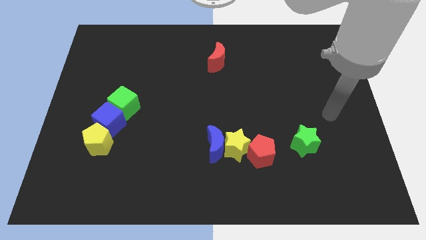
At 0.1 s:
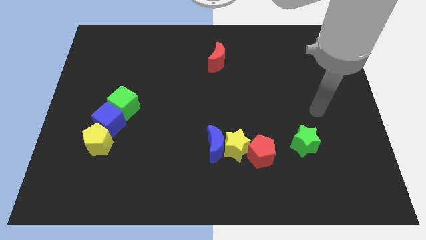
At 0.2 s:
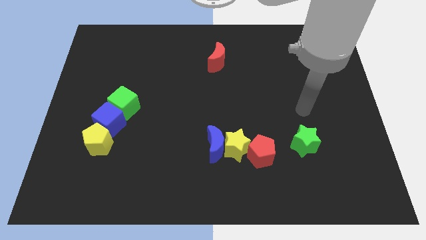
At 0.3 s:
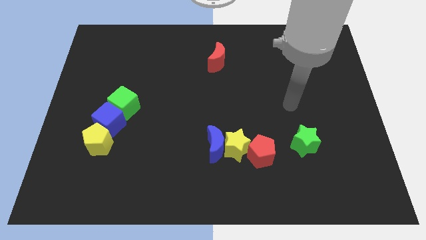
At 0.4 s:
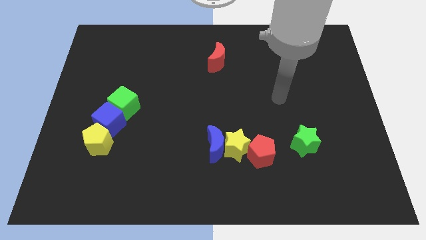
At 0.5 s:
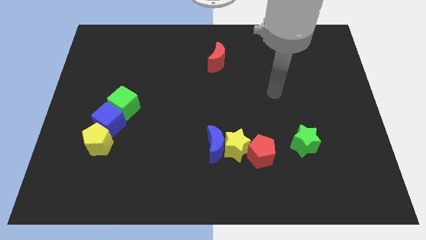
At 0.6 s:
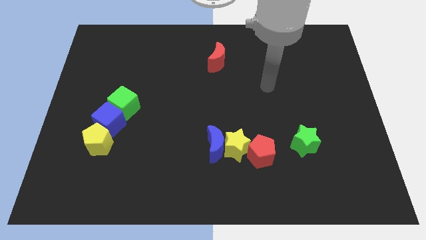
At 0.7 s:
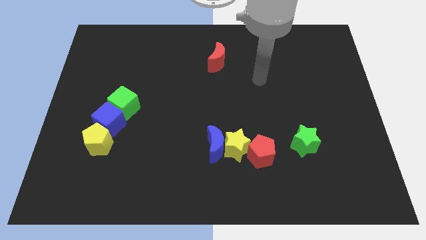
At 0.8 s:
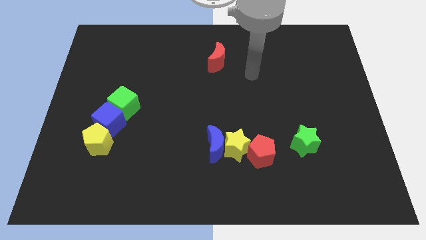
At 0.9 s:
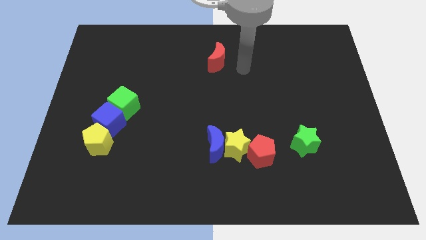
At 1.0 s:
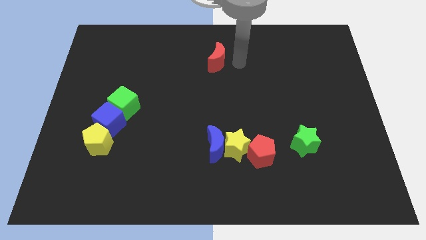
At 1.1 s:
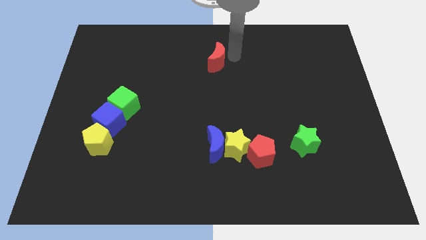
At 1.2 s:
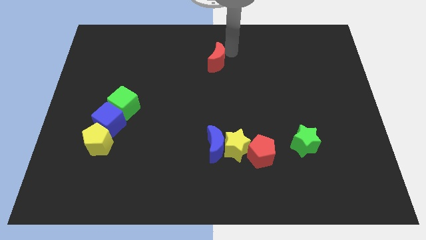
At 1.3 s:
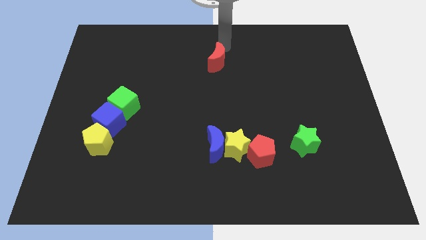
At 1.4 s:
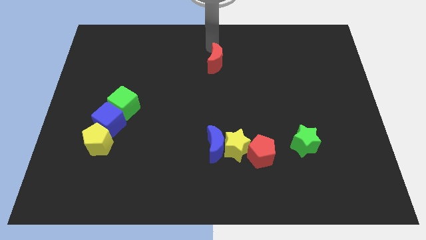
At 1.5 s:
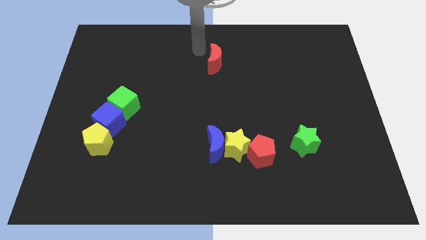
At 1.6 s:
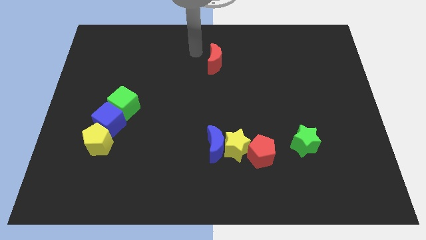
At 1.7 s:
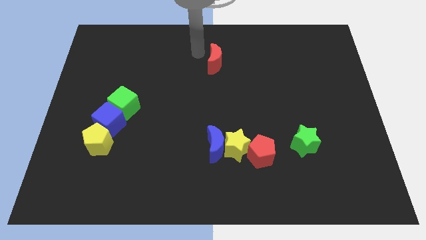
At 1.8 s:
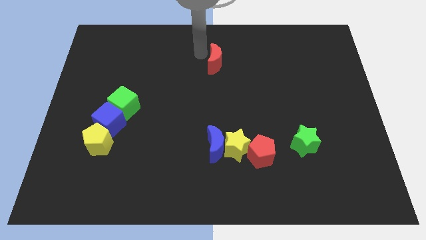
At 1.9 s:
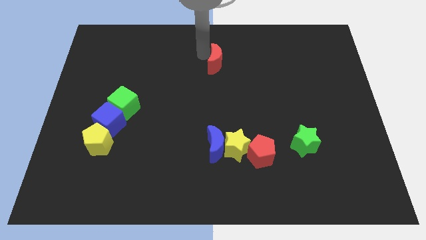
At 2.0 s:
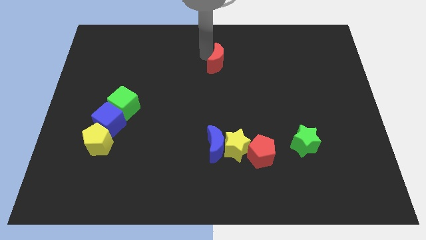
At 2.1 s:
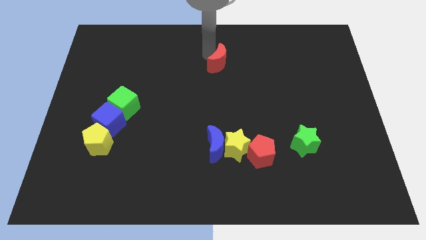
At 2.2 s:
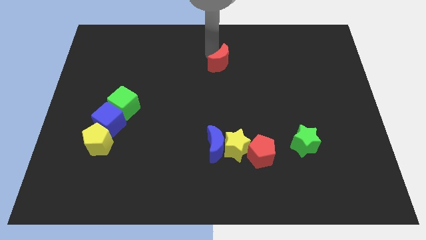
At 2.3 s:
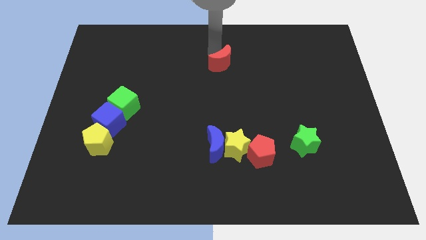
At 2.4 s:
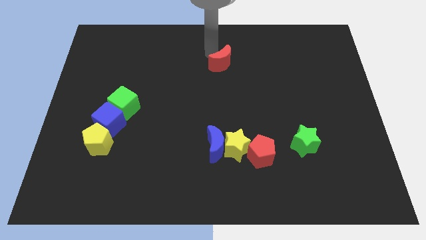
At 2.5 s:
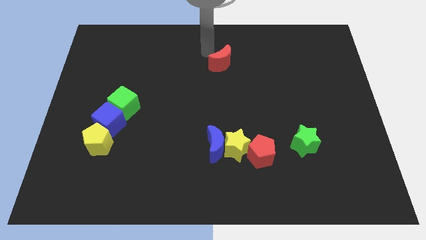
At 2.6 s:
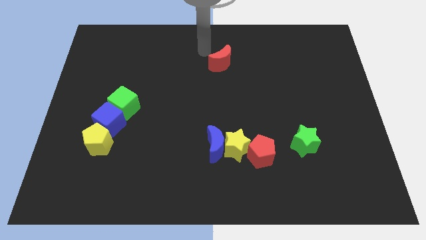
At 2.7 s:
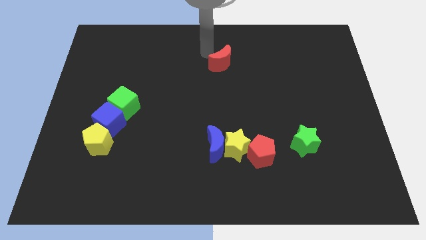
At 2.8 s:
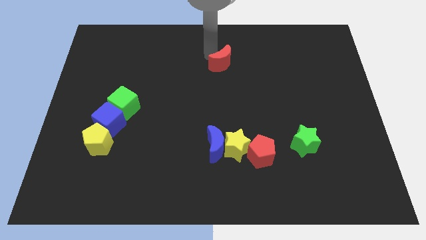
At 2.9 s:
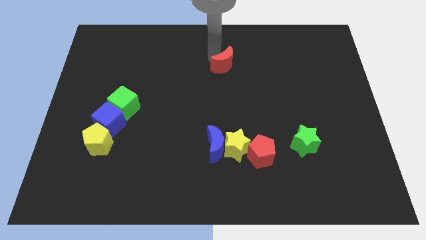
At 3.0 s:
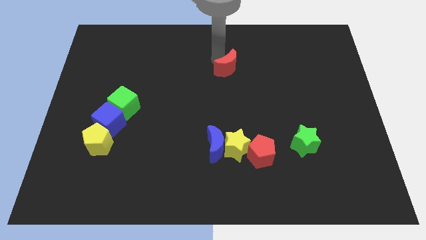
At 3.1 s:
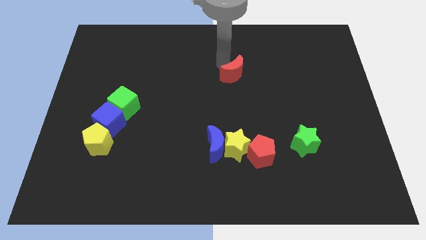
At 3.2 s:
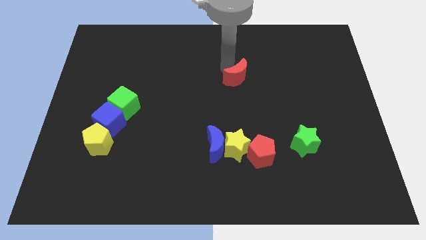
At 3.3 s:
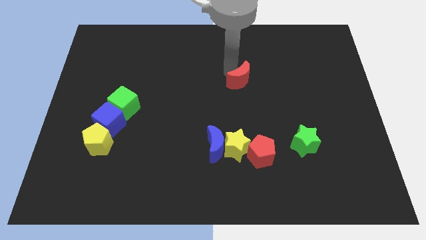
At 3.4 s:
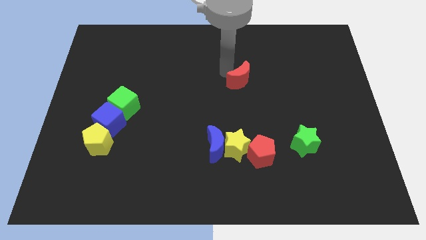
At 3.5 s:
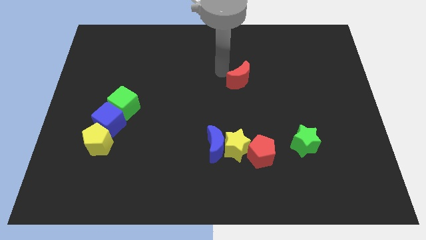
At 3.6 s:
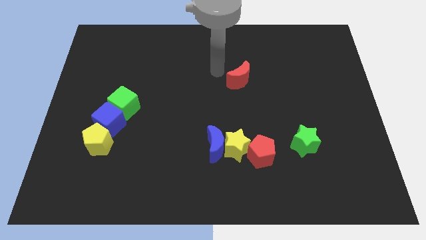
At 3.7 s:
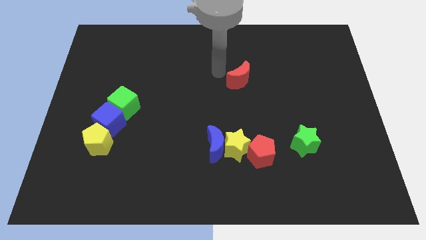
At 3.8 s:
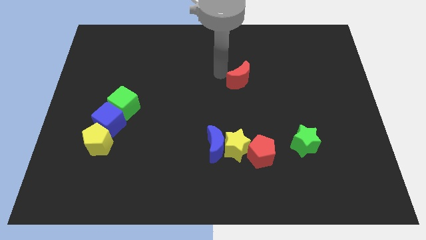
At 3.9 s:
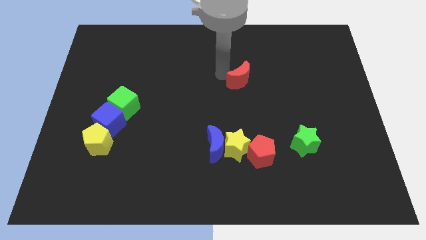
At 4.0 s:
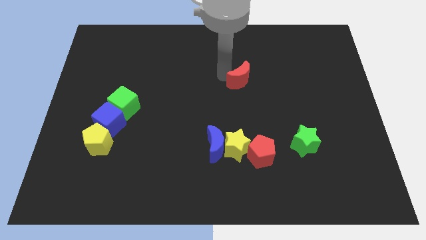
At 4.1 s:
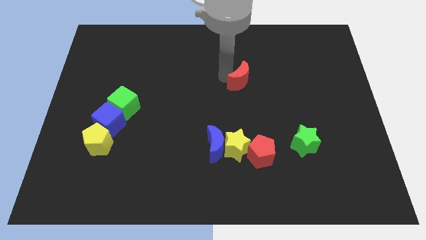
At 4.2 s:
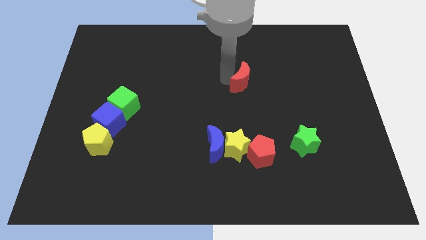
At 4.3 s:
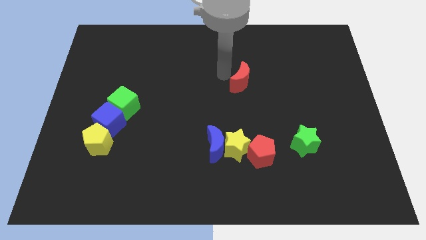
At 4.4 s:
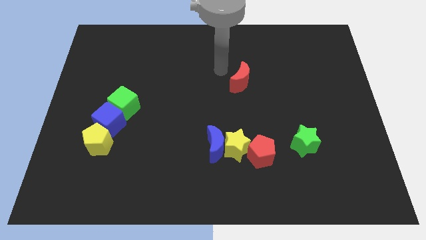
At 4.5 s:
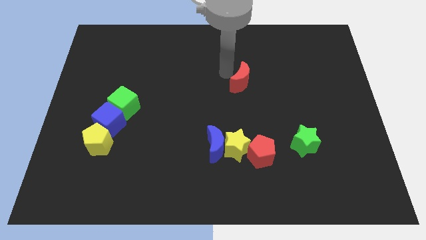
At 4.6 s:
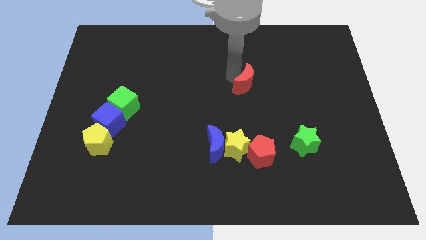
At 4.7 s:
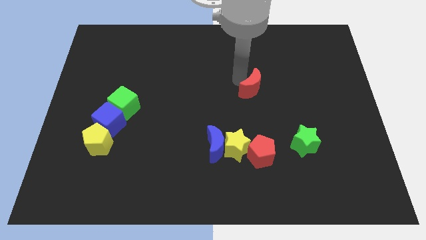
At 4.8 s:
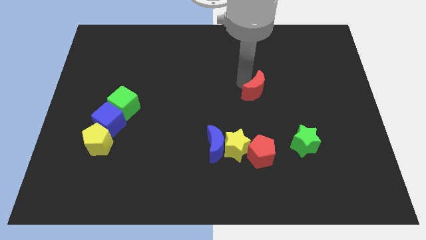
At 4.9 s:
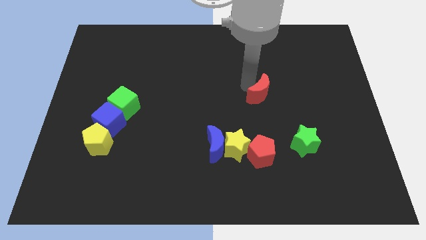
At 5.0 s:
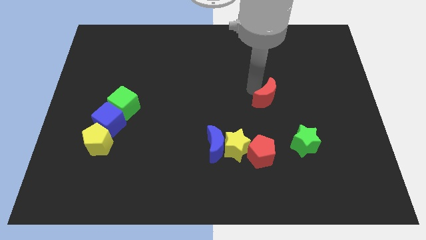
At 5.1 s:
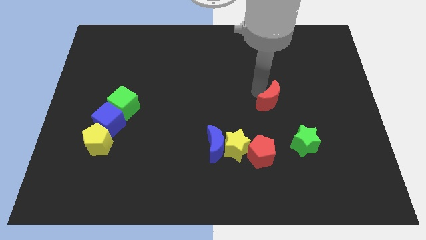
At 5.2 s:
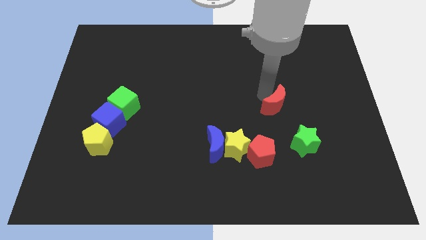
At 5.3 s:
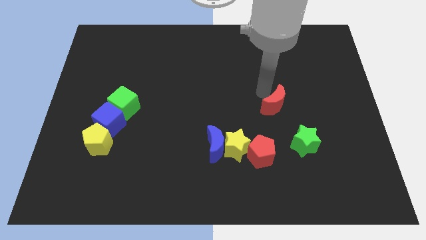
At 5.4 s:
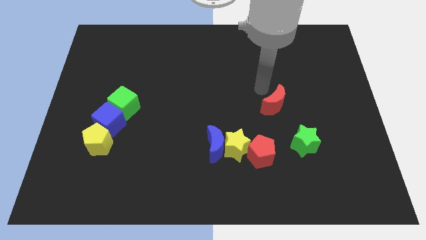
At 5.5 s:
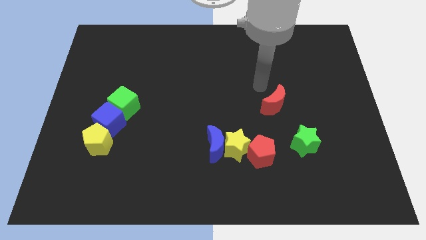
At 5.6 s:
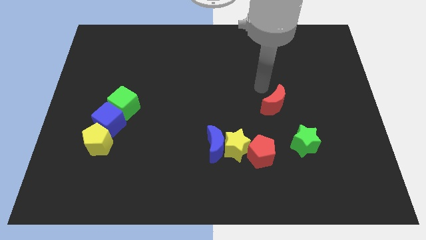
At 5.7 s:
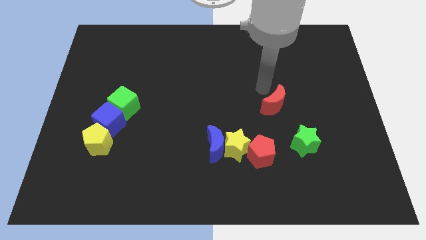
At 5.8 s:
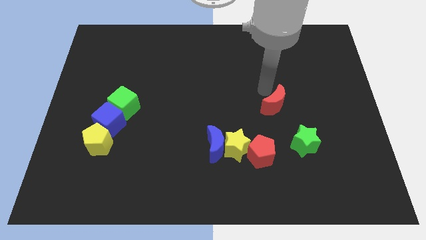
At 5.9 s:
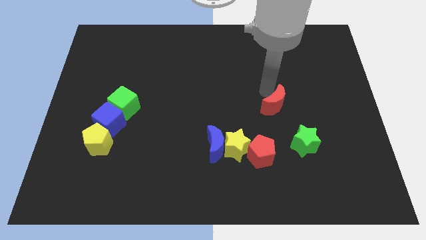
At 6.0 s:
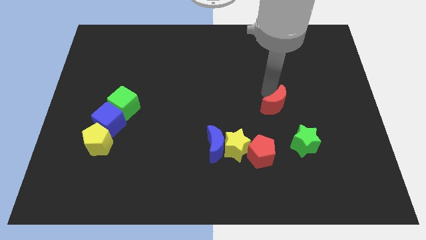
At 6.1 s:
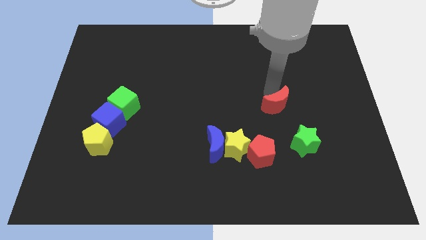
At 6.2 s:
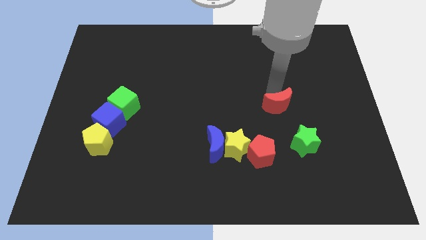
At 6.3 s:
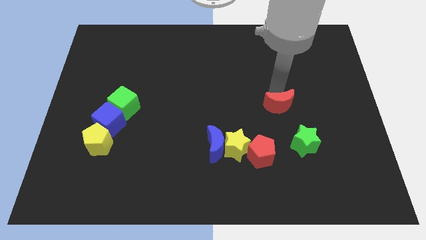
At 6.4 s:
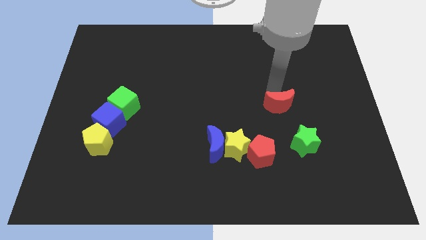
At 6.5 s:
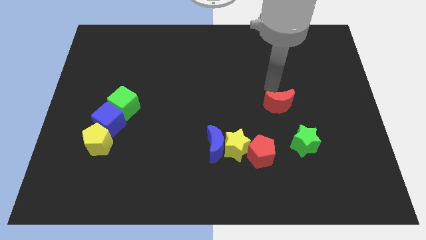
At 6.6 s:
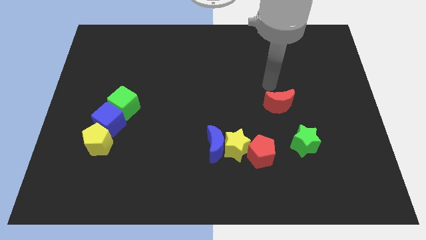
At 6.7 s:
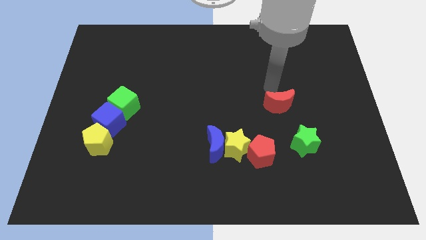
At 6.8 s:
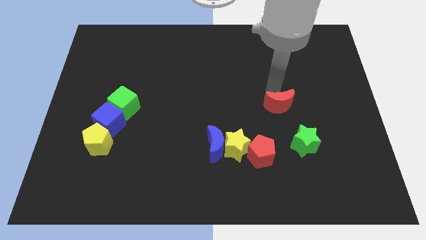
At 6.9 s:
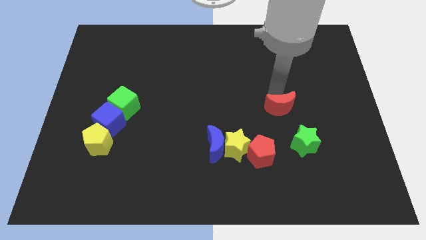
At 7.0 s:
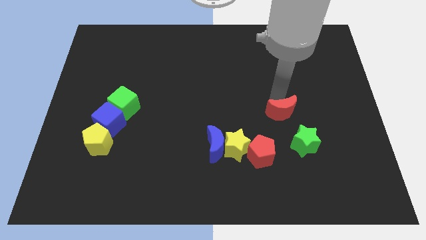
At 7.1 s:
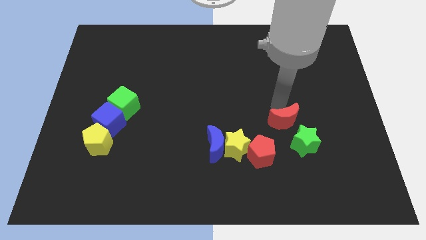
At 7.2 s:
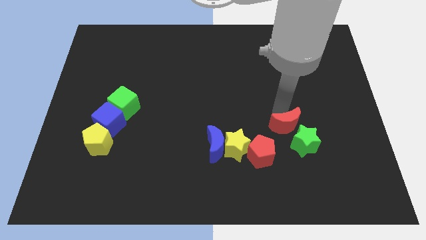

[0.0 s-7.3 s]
put the red moon towards the green star
